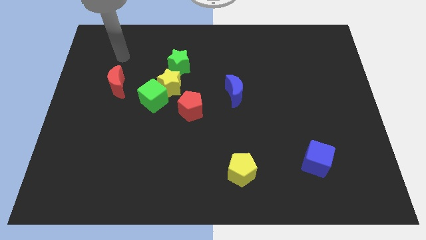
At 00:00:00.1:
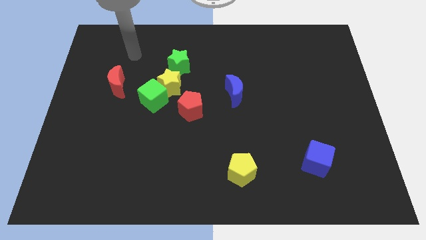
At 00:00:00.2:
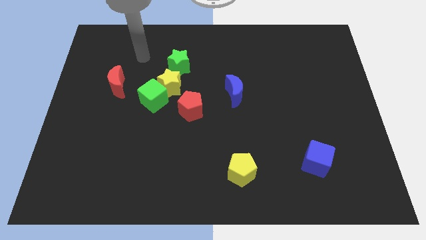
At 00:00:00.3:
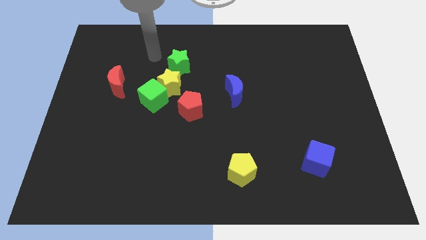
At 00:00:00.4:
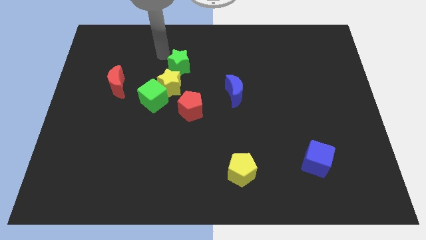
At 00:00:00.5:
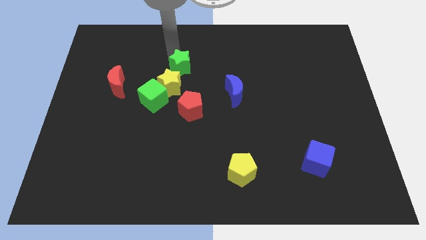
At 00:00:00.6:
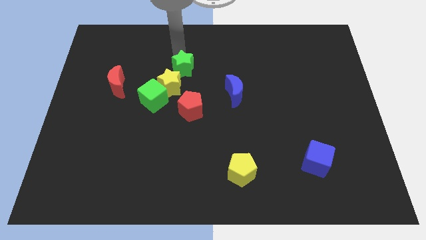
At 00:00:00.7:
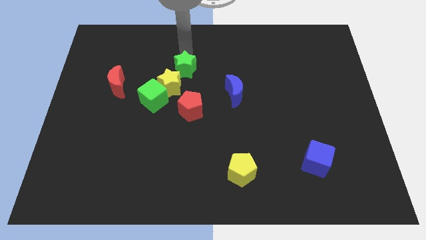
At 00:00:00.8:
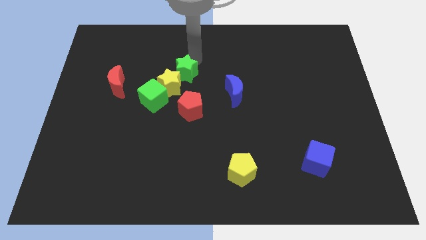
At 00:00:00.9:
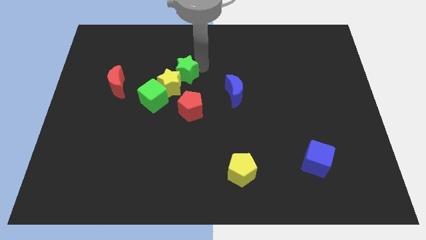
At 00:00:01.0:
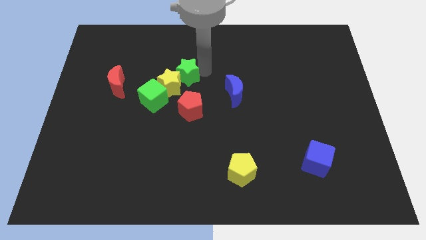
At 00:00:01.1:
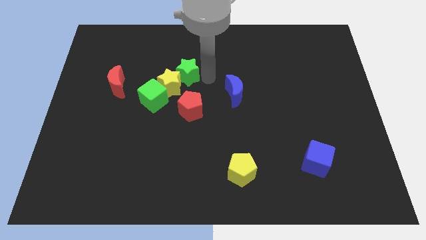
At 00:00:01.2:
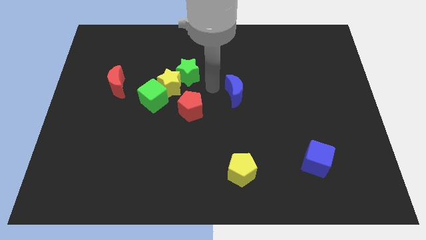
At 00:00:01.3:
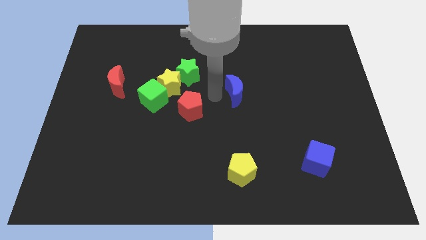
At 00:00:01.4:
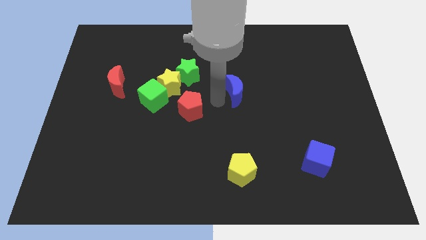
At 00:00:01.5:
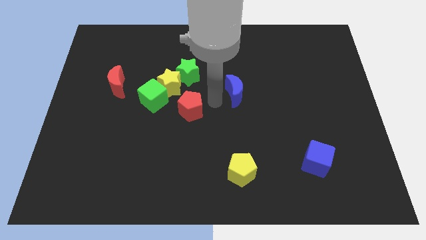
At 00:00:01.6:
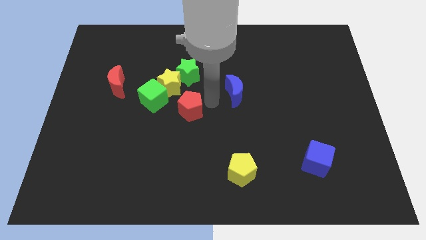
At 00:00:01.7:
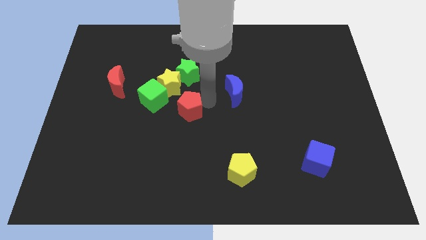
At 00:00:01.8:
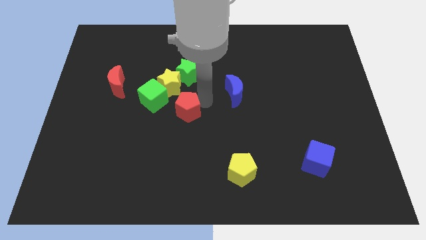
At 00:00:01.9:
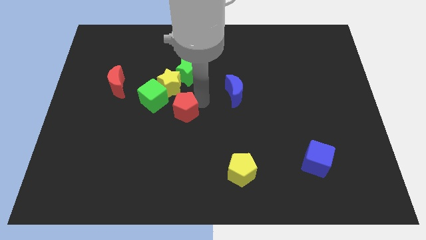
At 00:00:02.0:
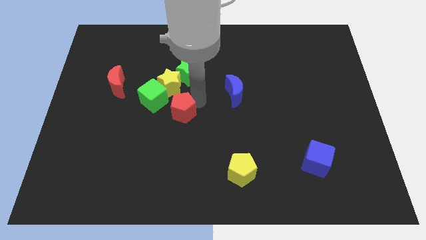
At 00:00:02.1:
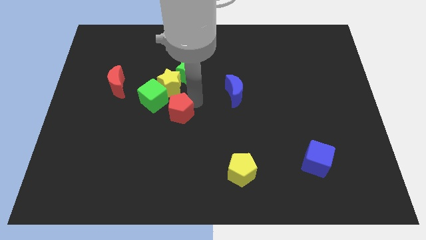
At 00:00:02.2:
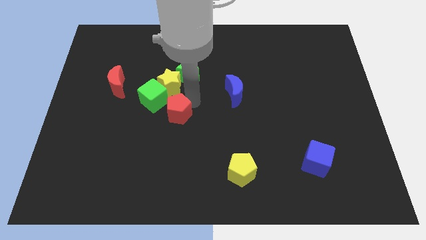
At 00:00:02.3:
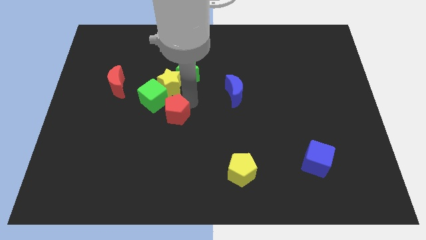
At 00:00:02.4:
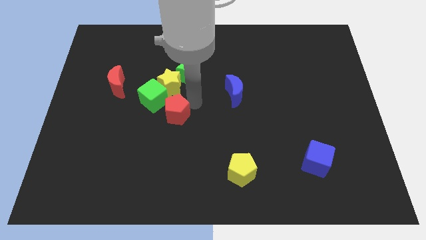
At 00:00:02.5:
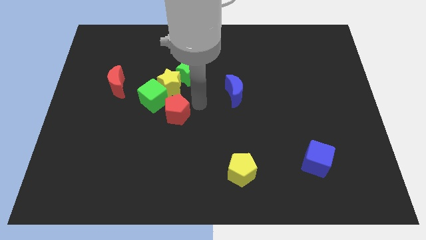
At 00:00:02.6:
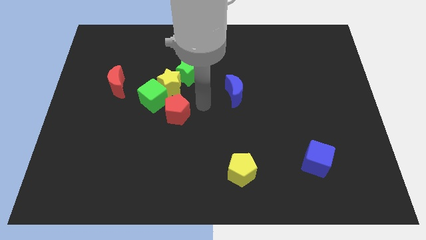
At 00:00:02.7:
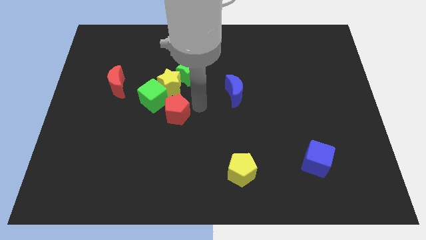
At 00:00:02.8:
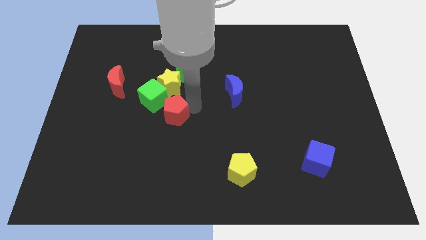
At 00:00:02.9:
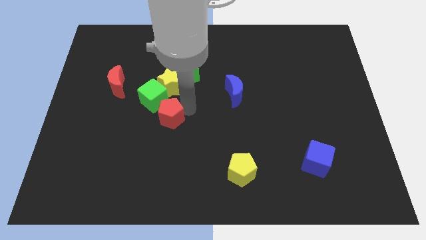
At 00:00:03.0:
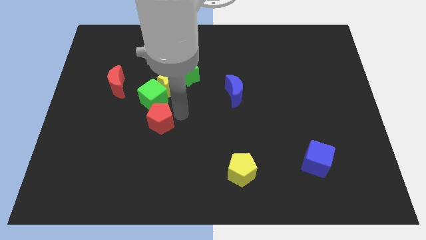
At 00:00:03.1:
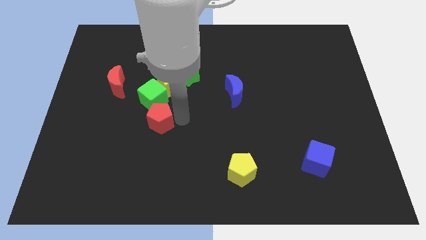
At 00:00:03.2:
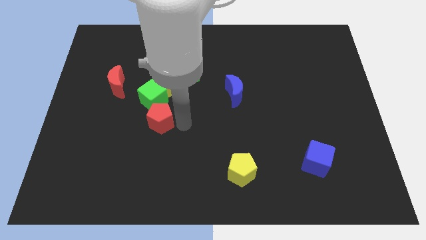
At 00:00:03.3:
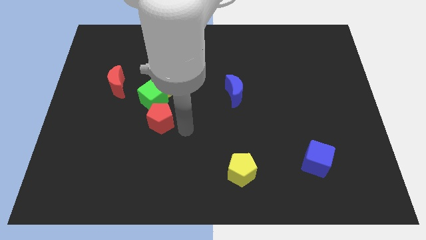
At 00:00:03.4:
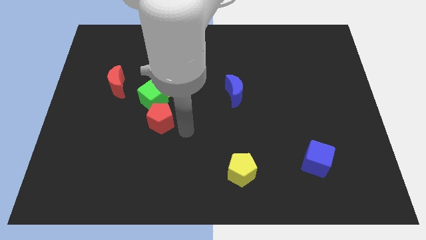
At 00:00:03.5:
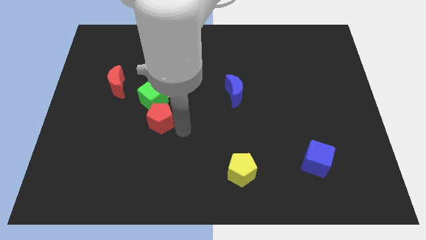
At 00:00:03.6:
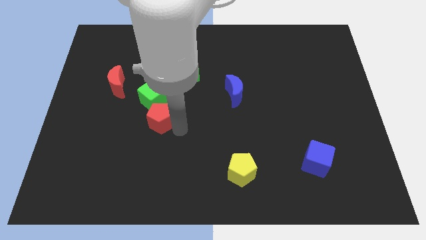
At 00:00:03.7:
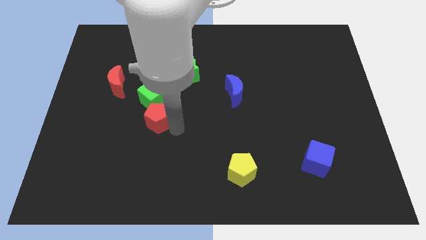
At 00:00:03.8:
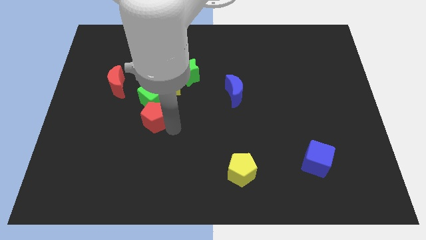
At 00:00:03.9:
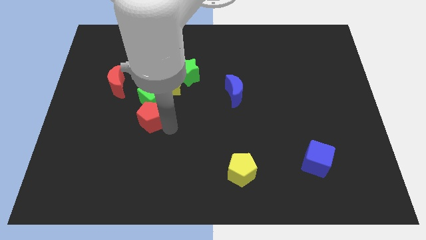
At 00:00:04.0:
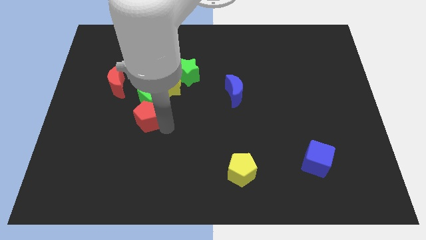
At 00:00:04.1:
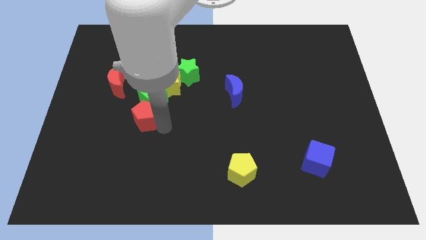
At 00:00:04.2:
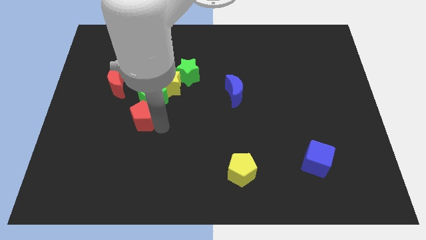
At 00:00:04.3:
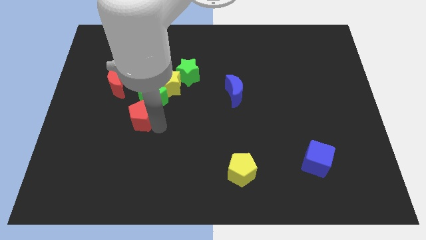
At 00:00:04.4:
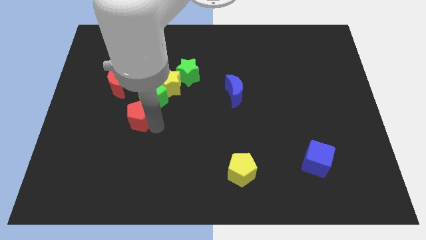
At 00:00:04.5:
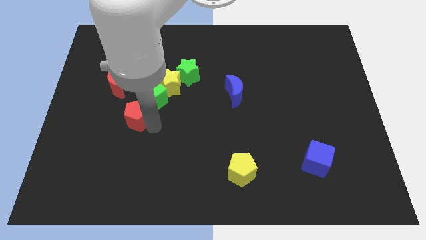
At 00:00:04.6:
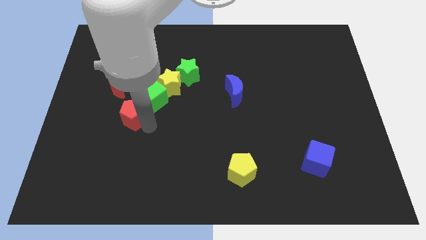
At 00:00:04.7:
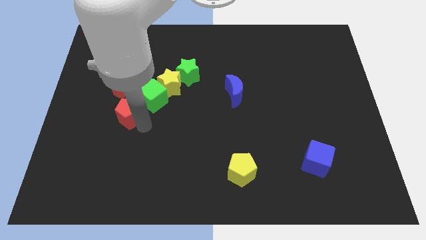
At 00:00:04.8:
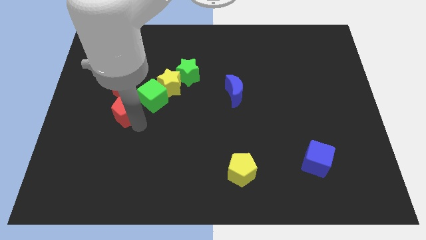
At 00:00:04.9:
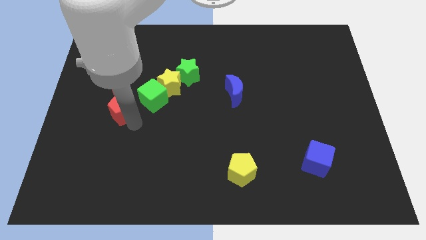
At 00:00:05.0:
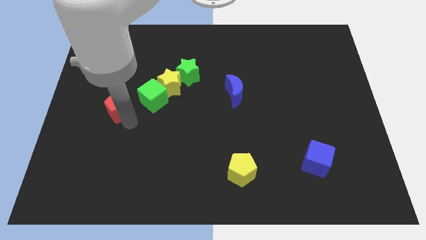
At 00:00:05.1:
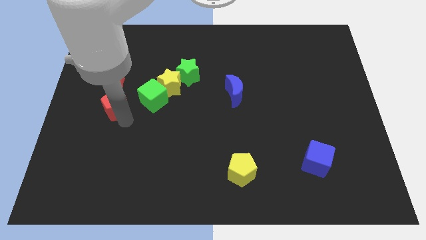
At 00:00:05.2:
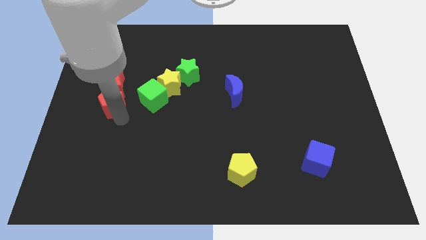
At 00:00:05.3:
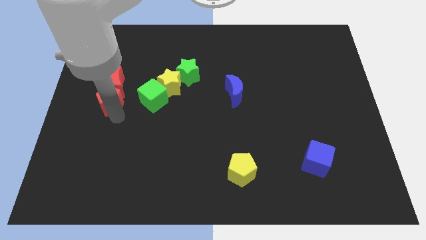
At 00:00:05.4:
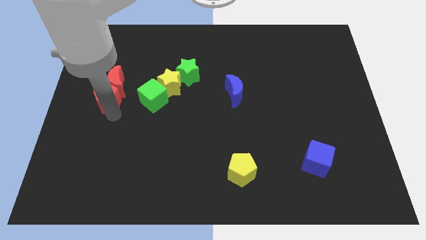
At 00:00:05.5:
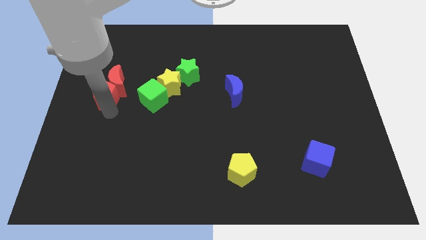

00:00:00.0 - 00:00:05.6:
slightly slide the red pentagon up and left

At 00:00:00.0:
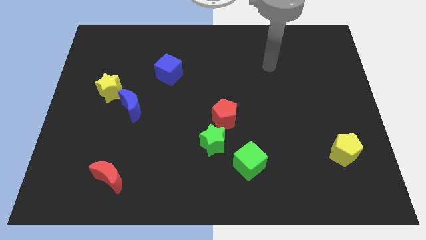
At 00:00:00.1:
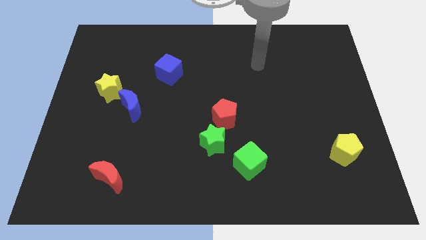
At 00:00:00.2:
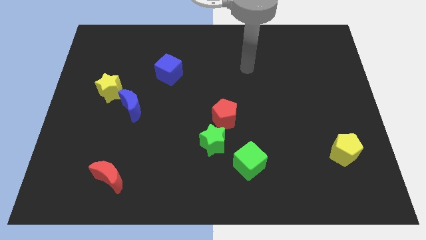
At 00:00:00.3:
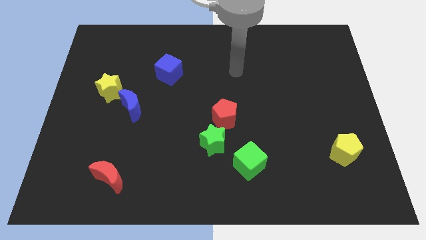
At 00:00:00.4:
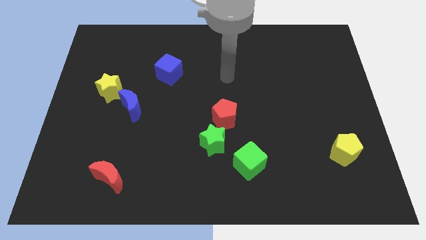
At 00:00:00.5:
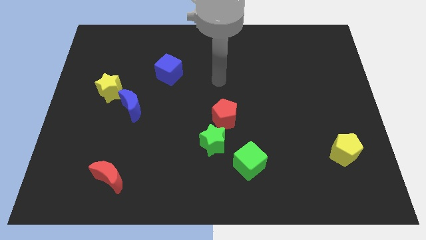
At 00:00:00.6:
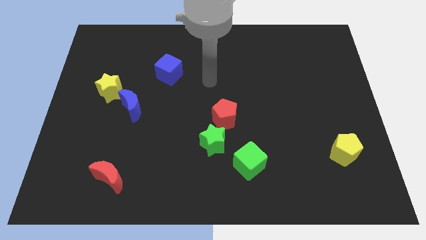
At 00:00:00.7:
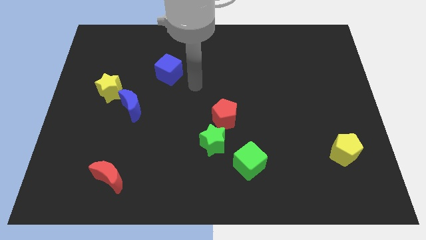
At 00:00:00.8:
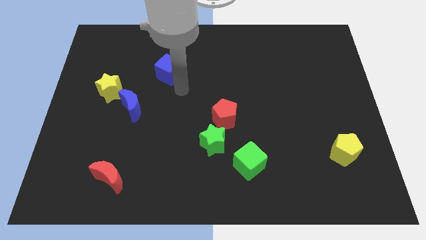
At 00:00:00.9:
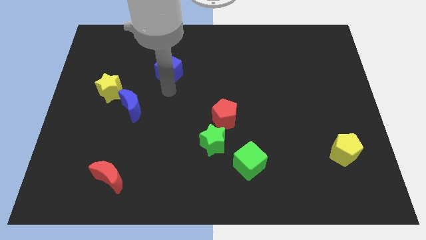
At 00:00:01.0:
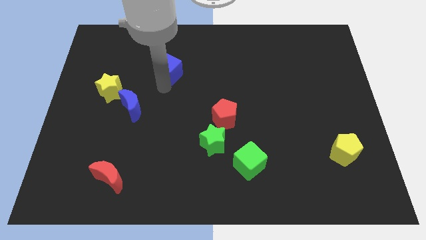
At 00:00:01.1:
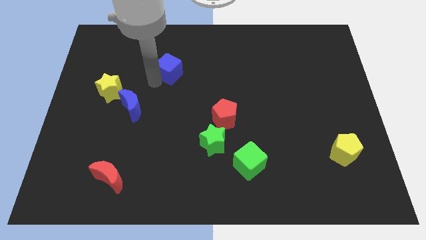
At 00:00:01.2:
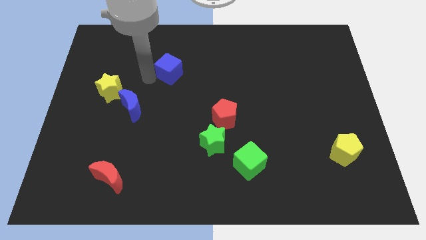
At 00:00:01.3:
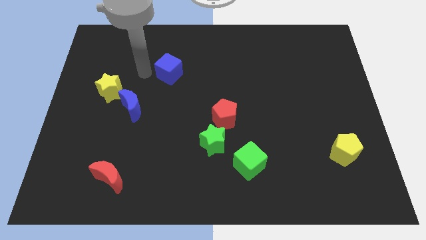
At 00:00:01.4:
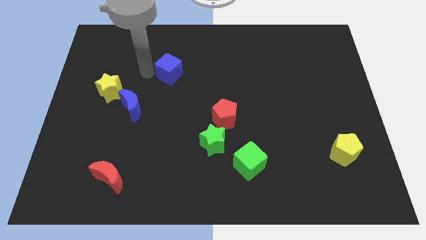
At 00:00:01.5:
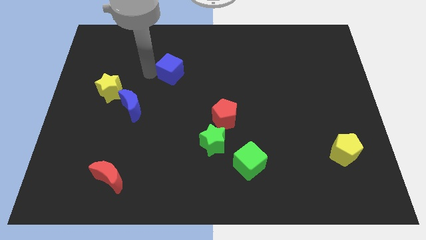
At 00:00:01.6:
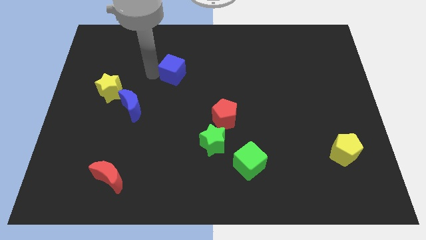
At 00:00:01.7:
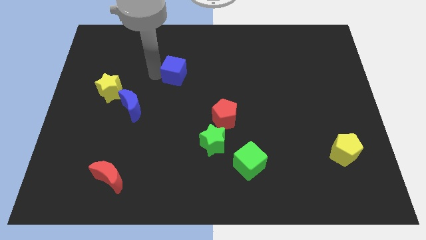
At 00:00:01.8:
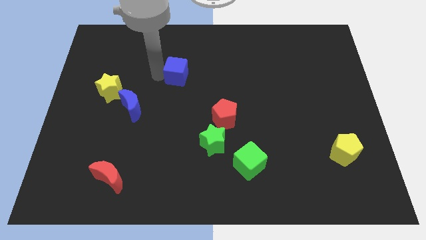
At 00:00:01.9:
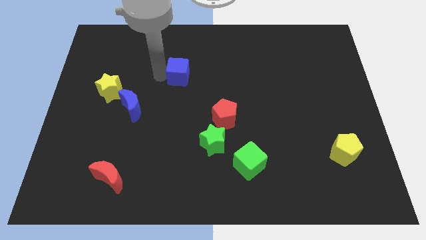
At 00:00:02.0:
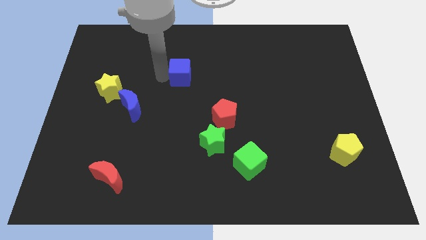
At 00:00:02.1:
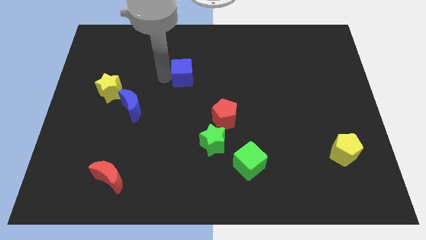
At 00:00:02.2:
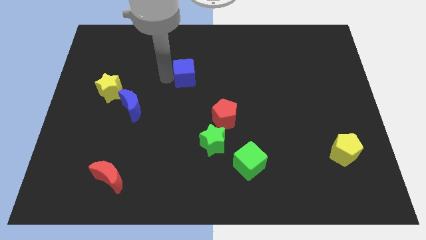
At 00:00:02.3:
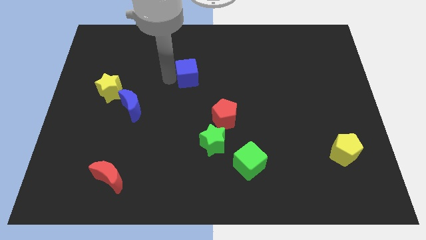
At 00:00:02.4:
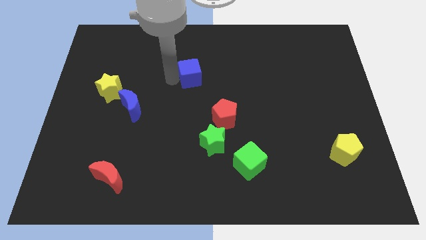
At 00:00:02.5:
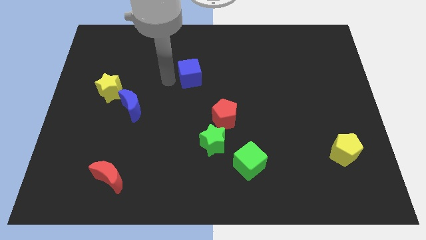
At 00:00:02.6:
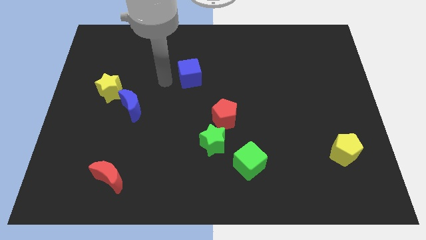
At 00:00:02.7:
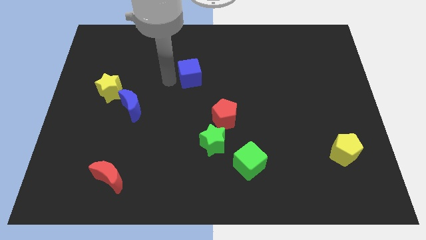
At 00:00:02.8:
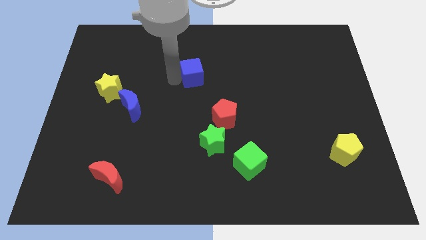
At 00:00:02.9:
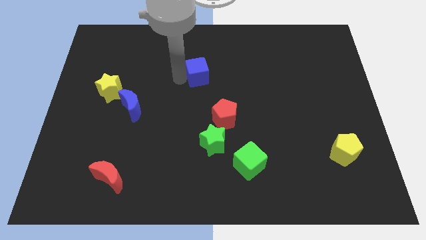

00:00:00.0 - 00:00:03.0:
move the blue cube to the right a little bit
